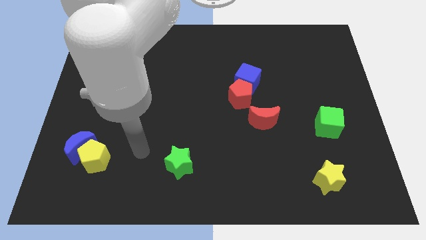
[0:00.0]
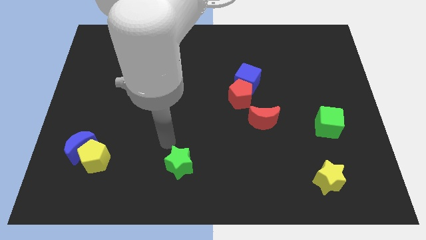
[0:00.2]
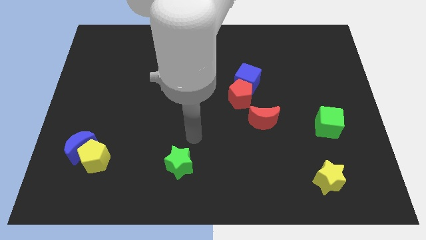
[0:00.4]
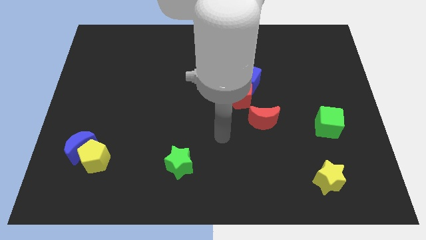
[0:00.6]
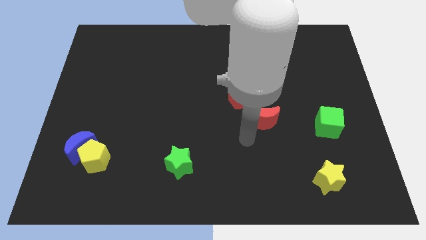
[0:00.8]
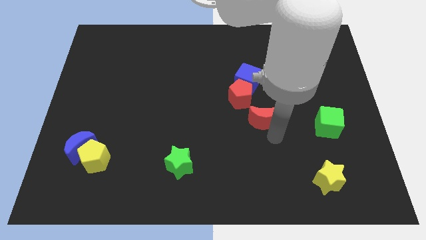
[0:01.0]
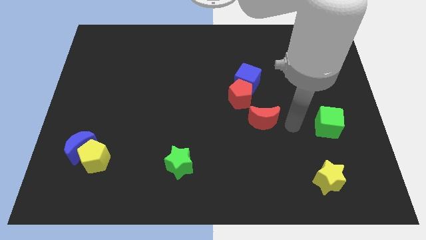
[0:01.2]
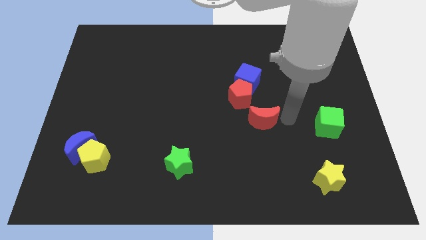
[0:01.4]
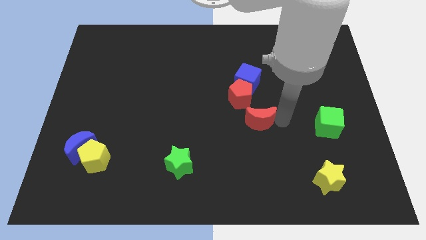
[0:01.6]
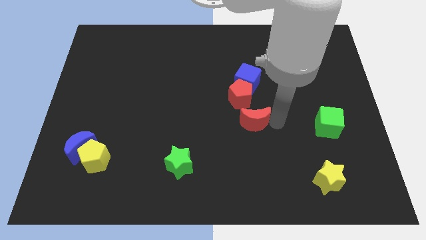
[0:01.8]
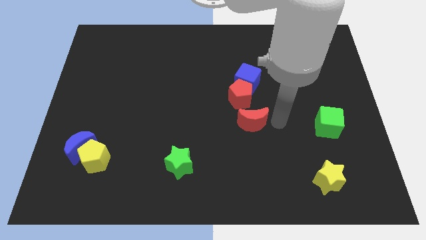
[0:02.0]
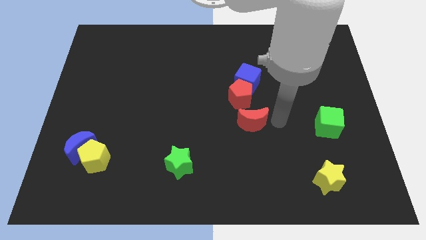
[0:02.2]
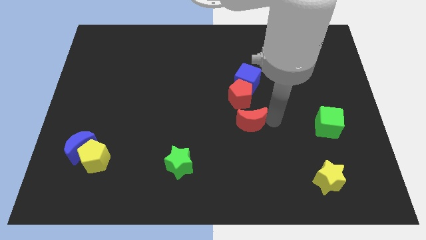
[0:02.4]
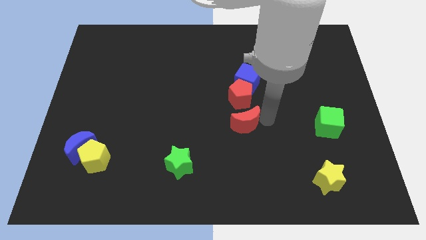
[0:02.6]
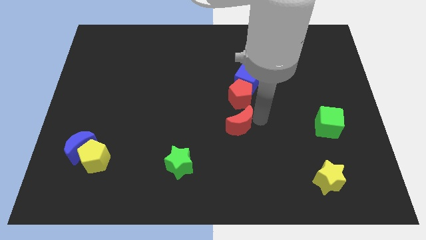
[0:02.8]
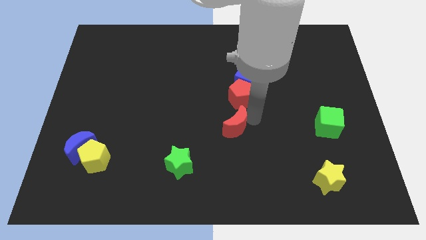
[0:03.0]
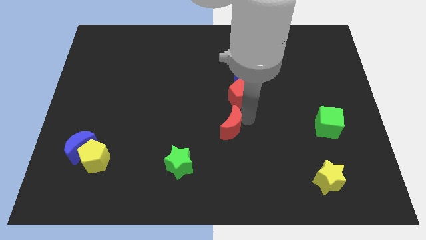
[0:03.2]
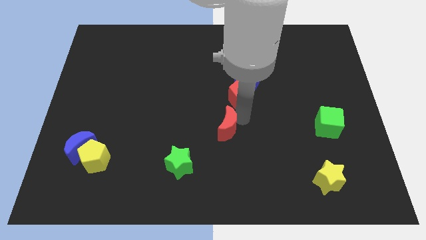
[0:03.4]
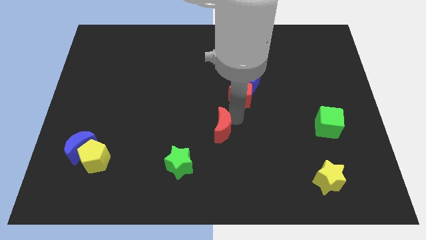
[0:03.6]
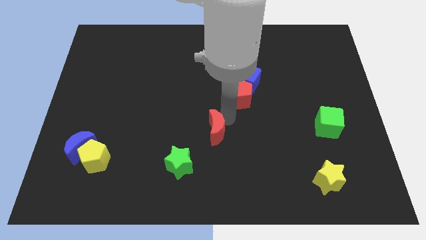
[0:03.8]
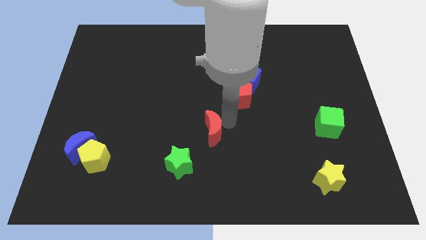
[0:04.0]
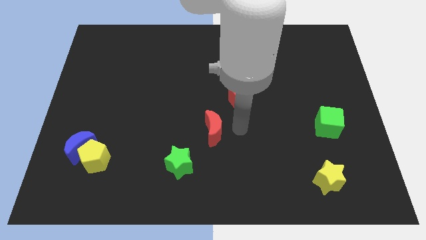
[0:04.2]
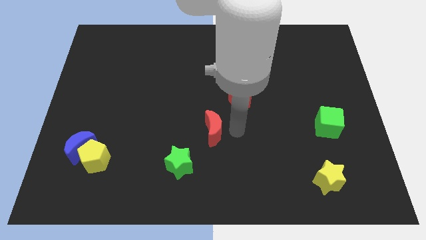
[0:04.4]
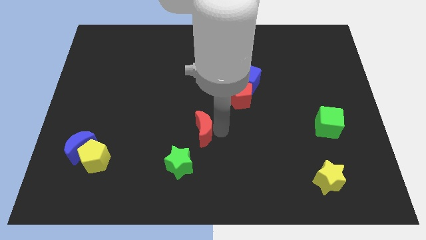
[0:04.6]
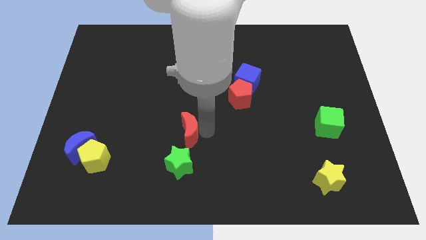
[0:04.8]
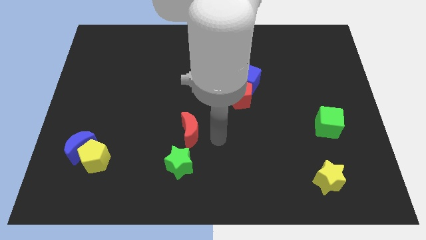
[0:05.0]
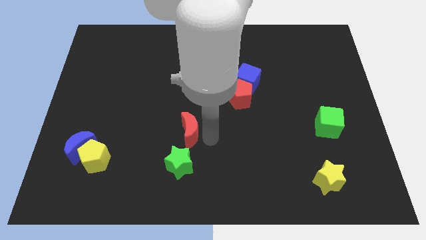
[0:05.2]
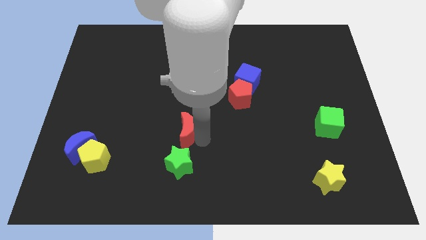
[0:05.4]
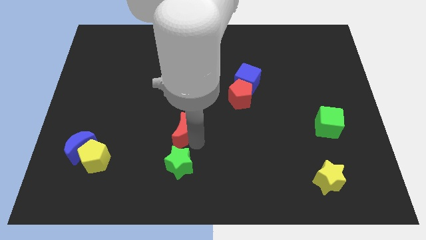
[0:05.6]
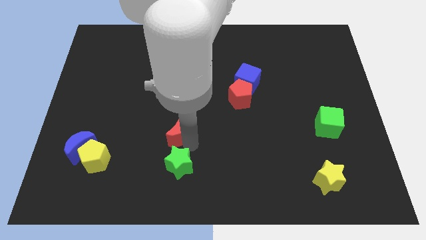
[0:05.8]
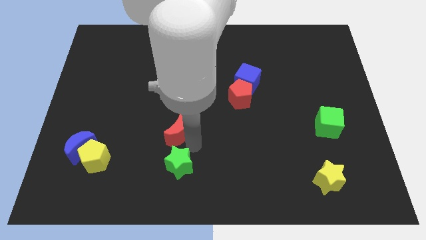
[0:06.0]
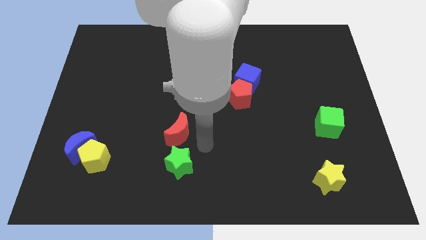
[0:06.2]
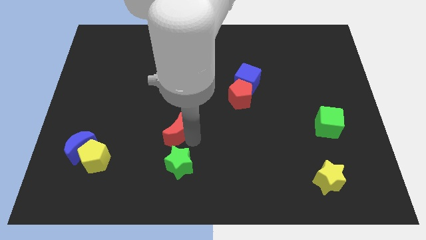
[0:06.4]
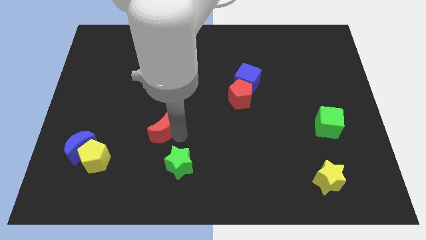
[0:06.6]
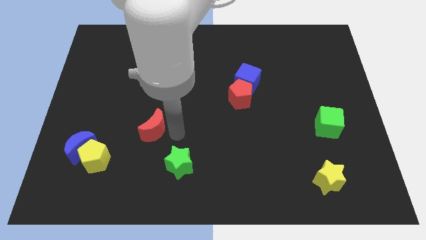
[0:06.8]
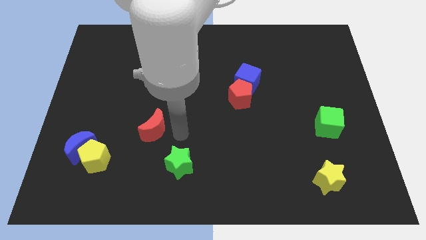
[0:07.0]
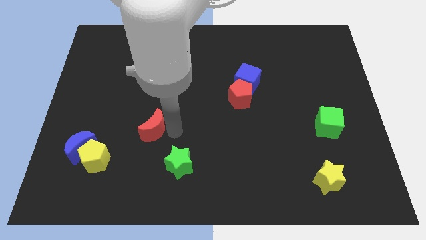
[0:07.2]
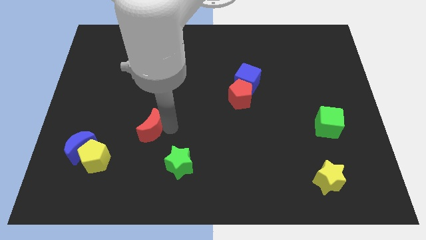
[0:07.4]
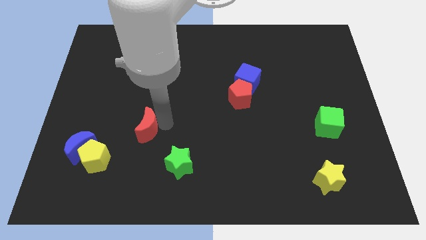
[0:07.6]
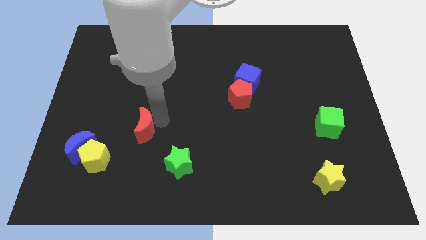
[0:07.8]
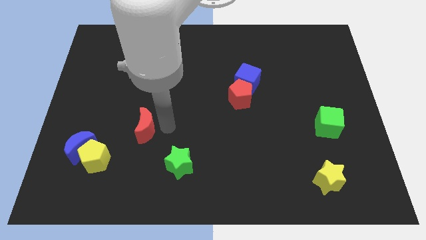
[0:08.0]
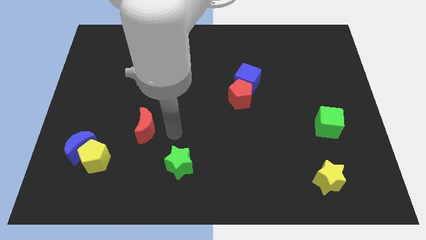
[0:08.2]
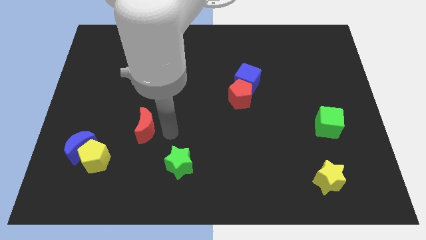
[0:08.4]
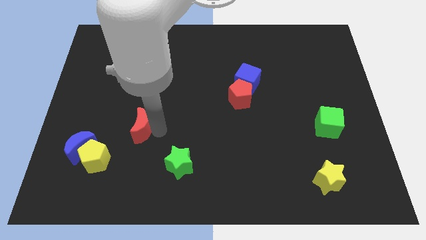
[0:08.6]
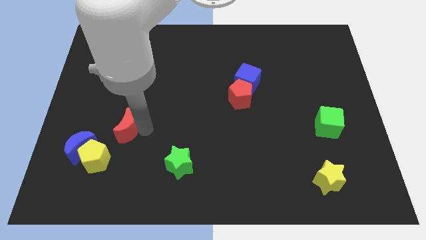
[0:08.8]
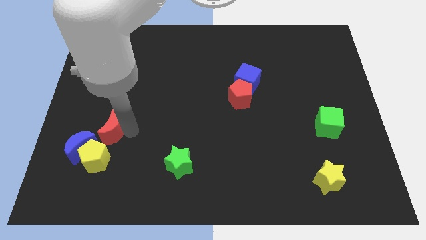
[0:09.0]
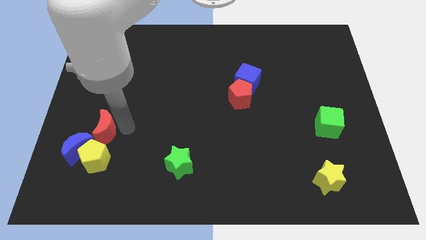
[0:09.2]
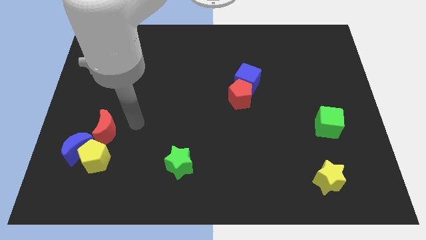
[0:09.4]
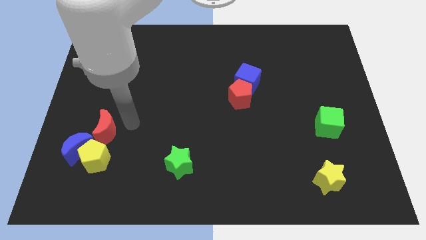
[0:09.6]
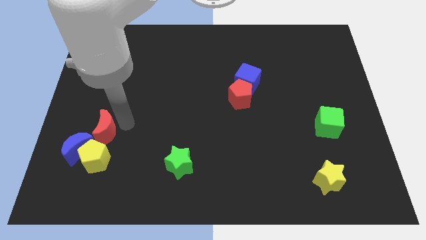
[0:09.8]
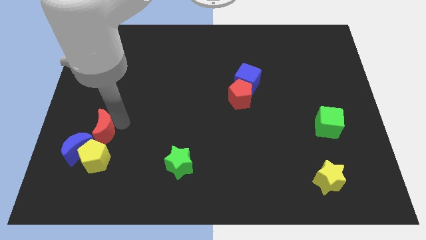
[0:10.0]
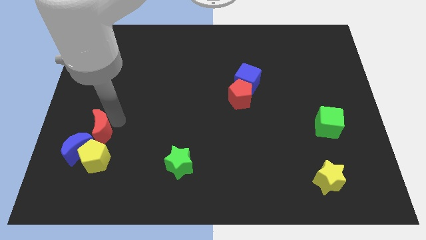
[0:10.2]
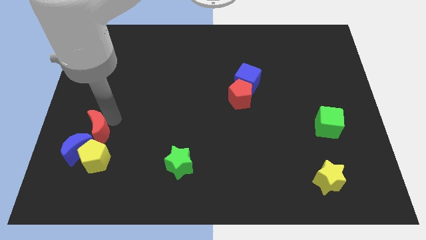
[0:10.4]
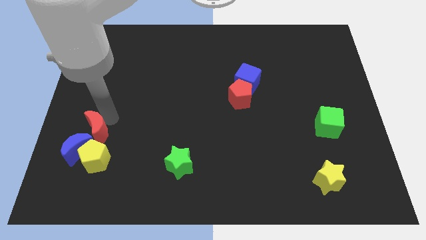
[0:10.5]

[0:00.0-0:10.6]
push the red moon towards the blue moon

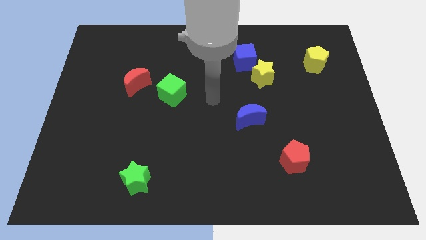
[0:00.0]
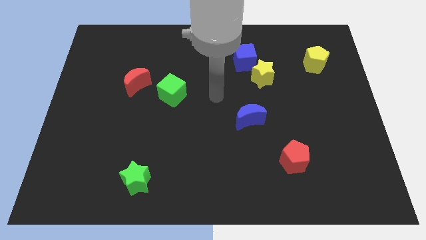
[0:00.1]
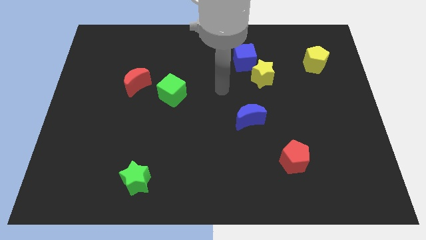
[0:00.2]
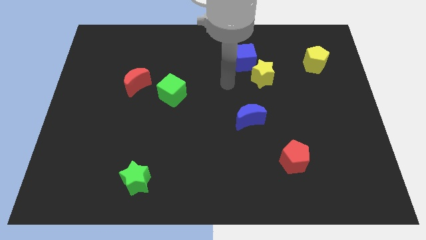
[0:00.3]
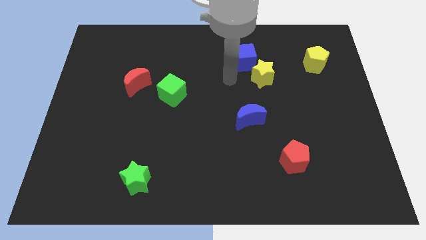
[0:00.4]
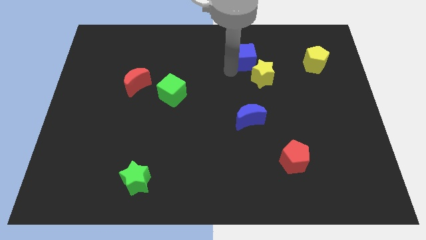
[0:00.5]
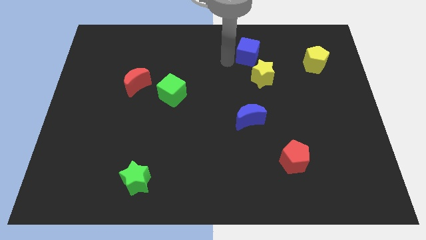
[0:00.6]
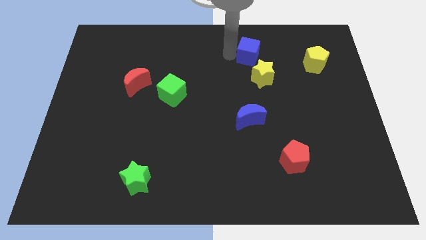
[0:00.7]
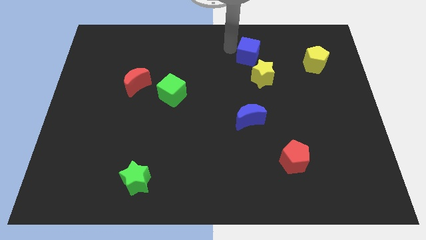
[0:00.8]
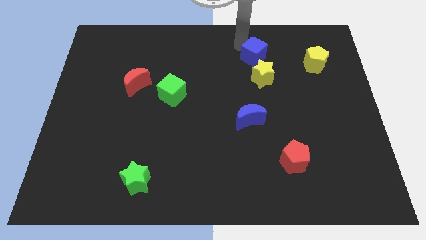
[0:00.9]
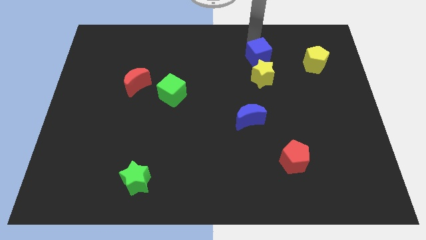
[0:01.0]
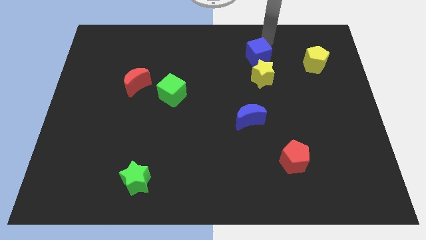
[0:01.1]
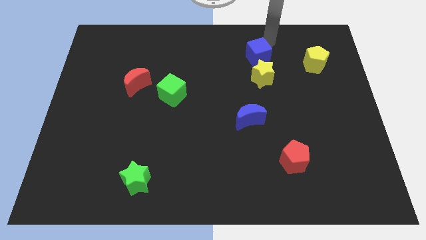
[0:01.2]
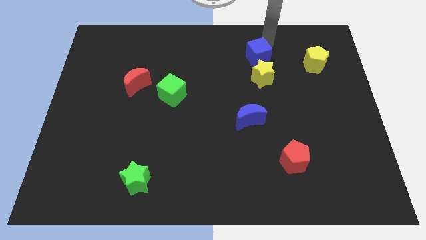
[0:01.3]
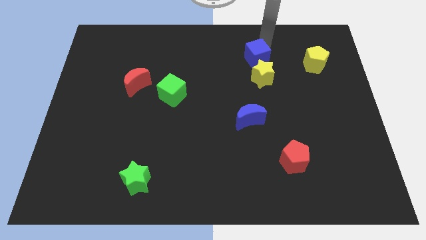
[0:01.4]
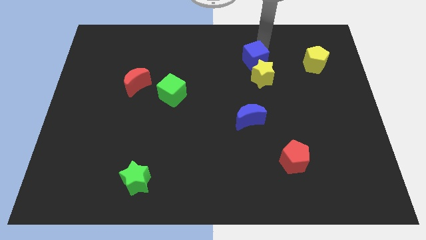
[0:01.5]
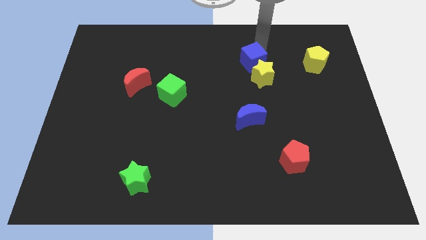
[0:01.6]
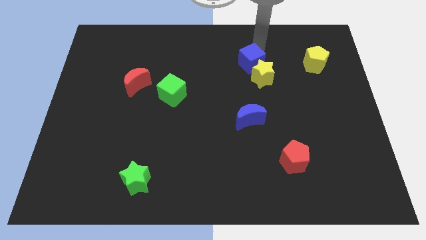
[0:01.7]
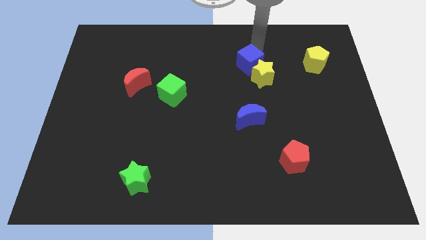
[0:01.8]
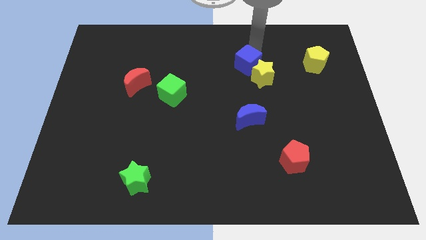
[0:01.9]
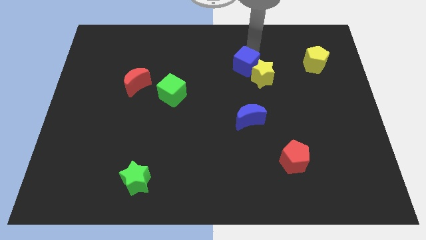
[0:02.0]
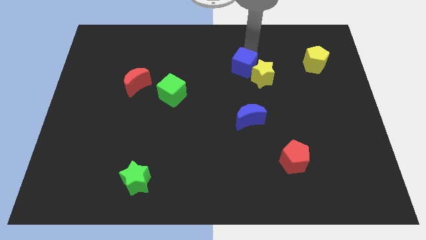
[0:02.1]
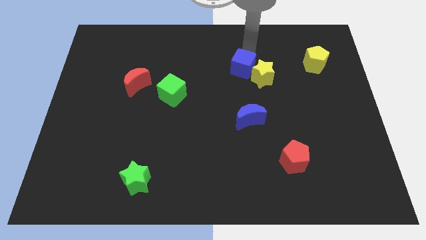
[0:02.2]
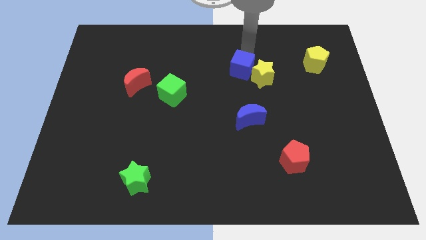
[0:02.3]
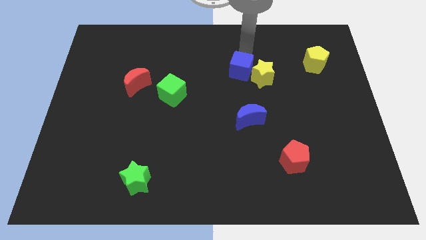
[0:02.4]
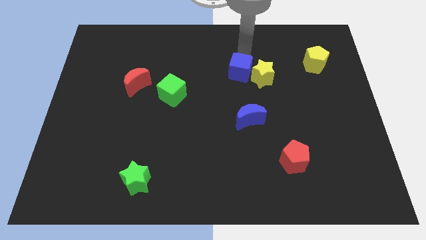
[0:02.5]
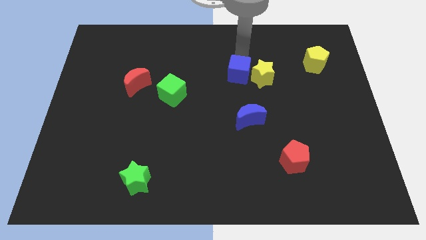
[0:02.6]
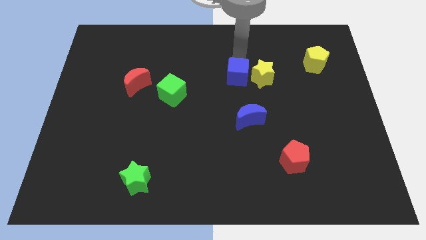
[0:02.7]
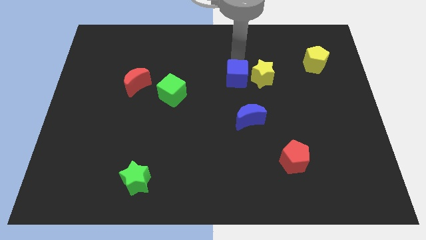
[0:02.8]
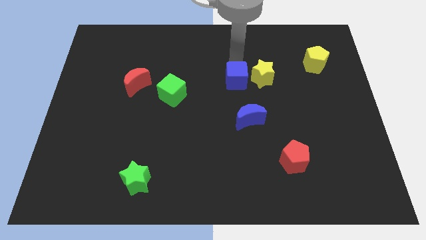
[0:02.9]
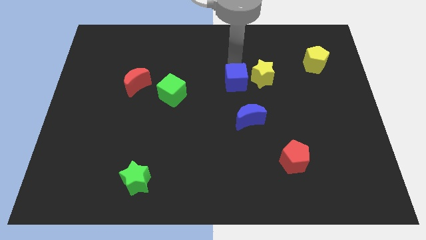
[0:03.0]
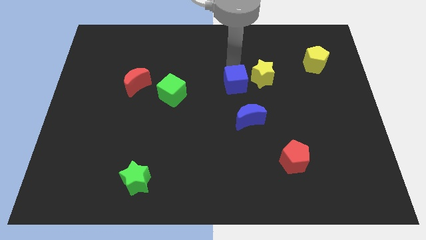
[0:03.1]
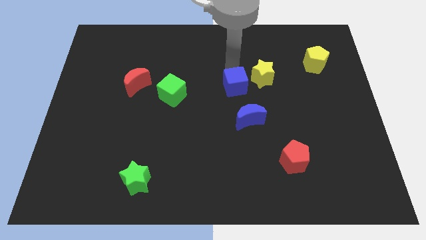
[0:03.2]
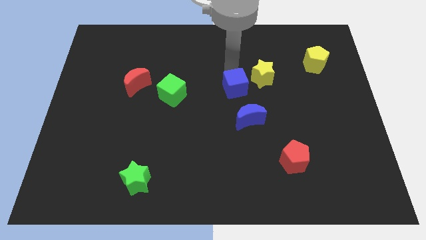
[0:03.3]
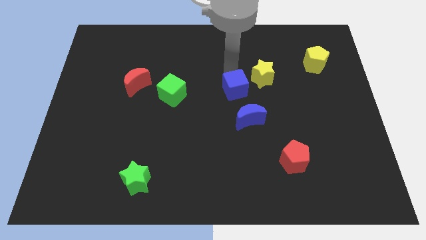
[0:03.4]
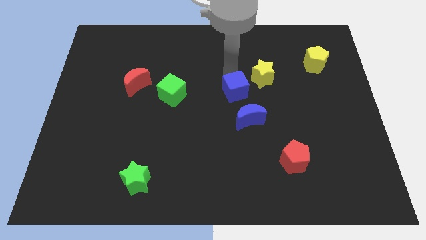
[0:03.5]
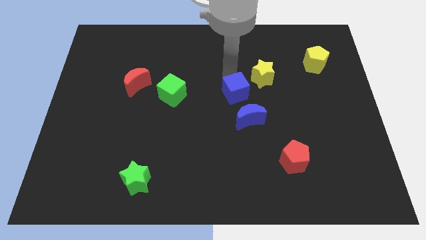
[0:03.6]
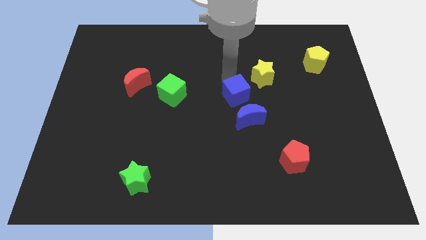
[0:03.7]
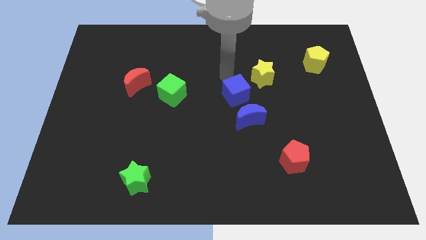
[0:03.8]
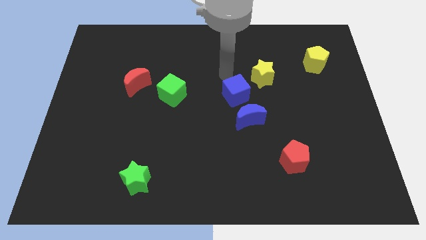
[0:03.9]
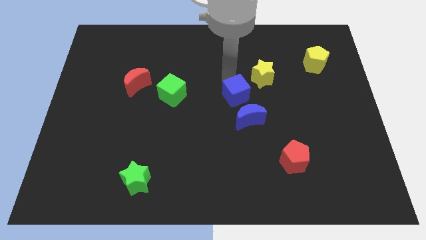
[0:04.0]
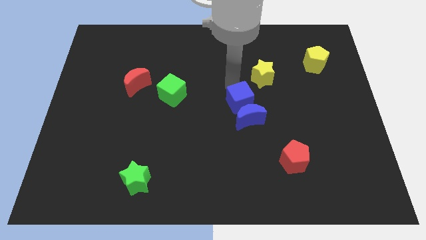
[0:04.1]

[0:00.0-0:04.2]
slide the blue cube towards the blue moon
